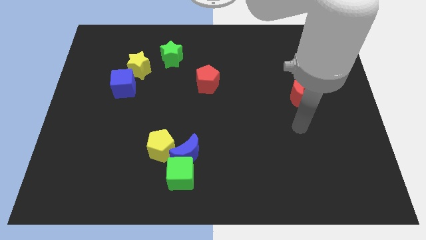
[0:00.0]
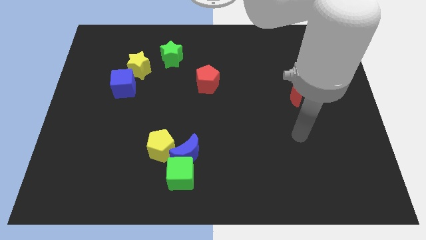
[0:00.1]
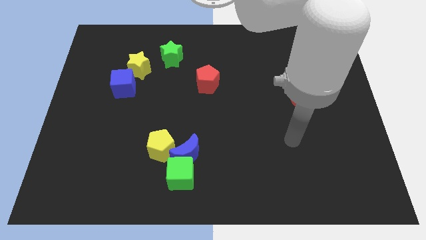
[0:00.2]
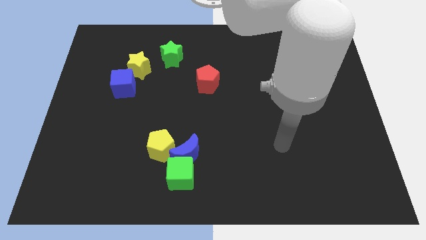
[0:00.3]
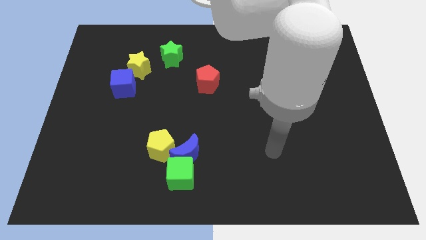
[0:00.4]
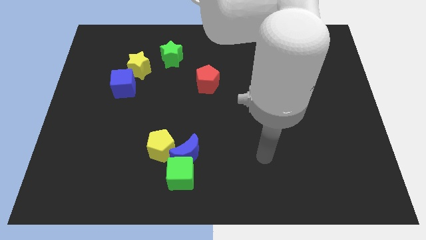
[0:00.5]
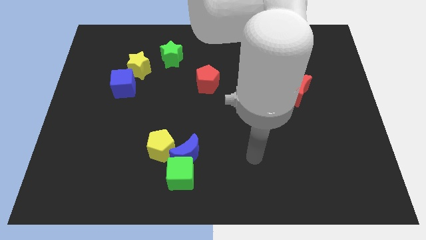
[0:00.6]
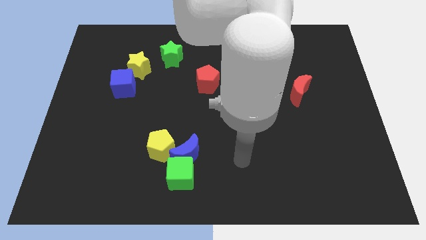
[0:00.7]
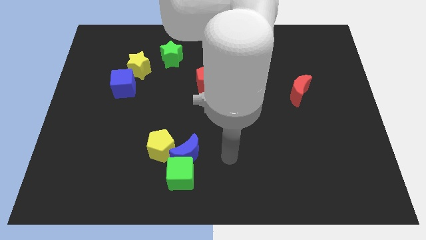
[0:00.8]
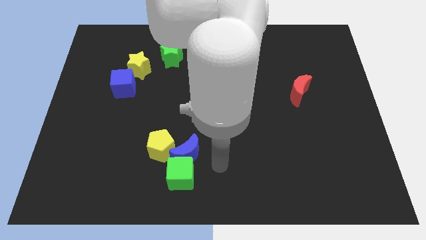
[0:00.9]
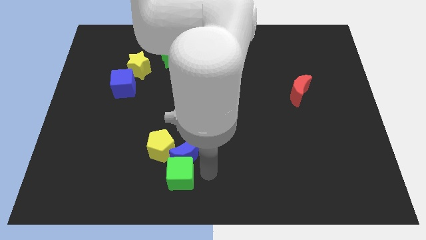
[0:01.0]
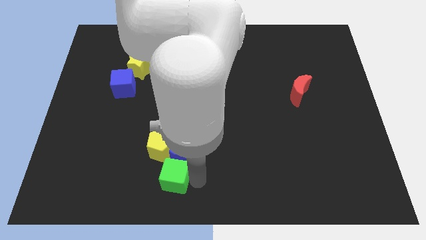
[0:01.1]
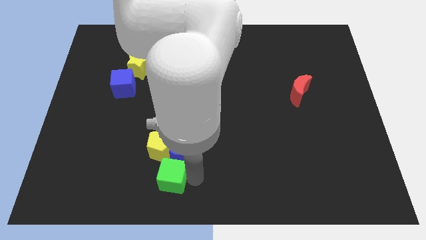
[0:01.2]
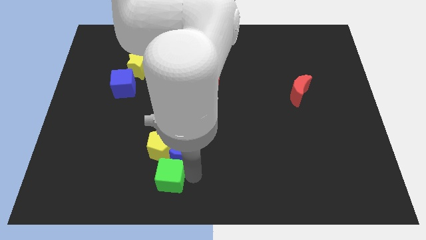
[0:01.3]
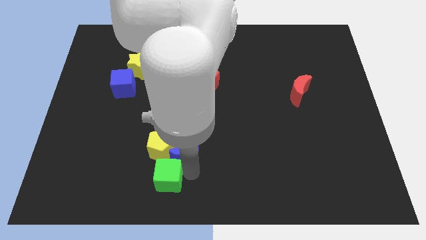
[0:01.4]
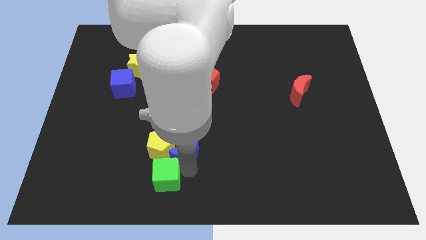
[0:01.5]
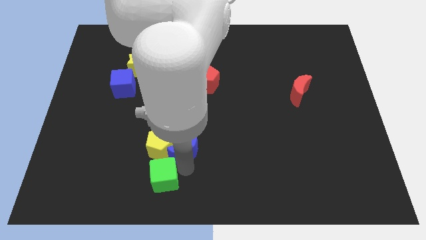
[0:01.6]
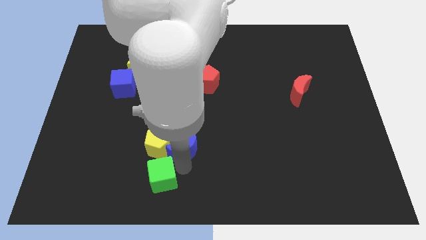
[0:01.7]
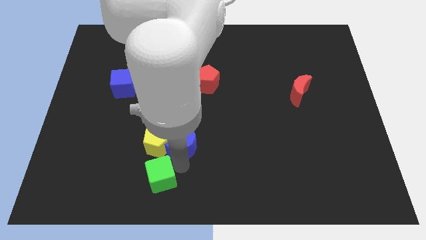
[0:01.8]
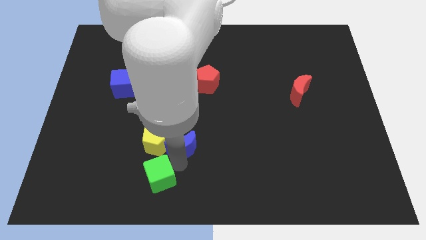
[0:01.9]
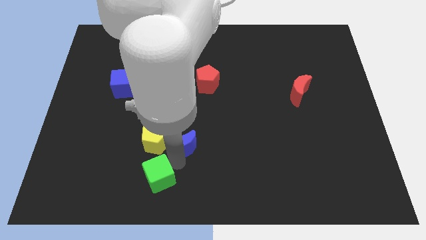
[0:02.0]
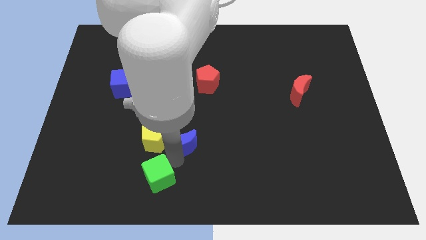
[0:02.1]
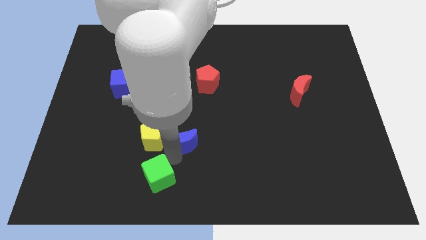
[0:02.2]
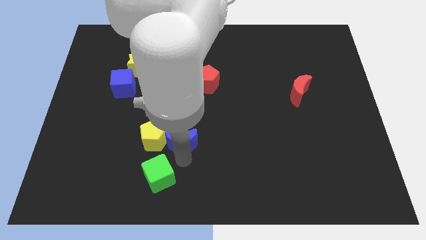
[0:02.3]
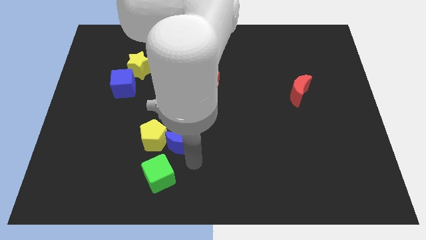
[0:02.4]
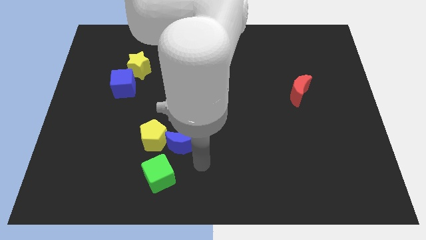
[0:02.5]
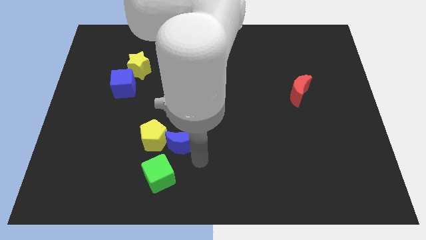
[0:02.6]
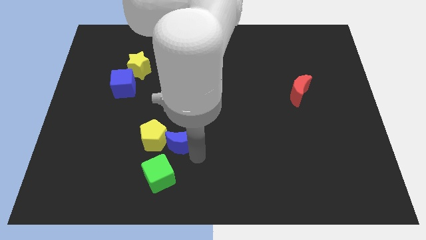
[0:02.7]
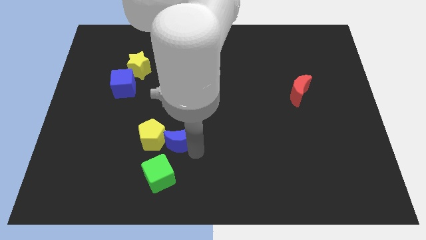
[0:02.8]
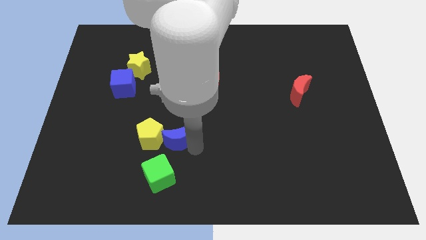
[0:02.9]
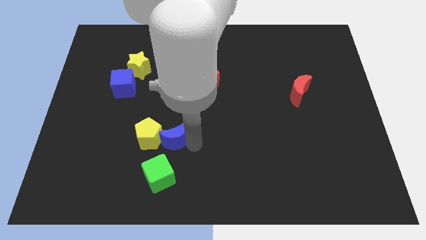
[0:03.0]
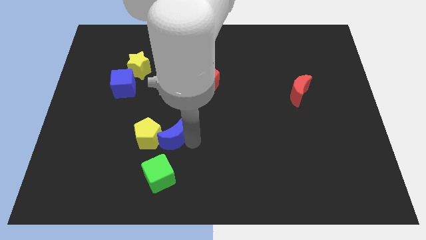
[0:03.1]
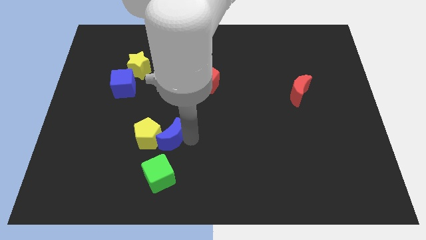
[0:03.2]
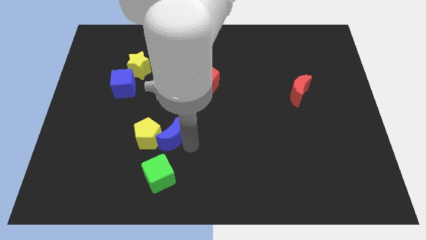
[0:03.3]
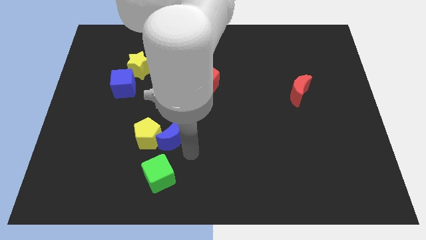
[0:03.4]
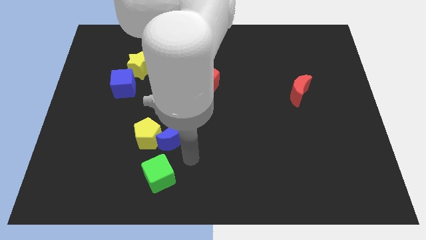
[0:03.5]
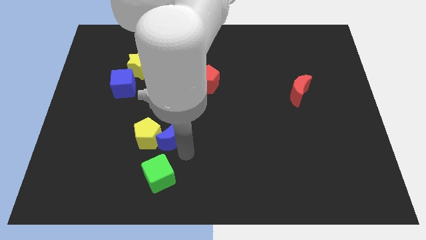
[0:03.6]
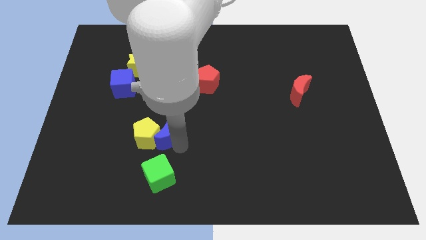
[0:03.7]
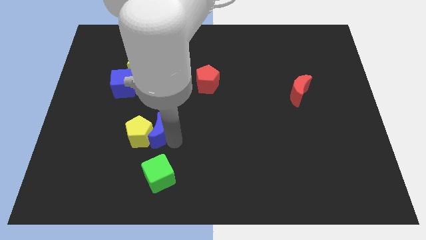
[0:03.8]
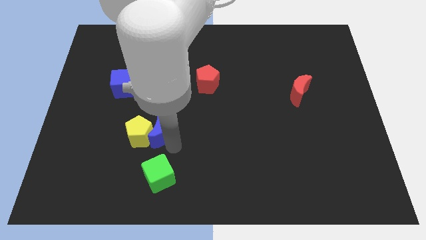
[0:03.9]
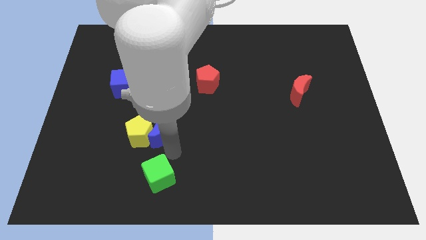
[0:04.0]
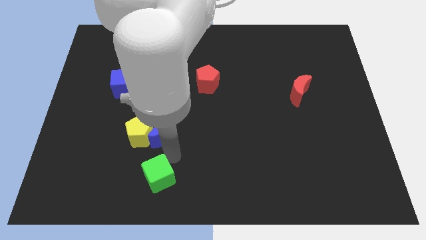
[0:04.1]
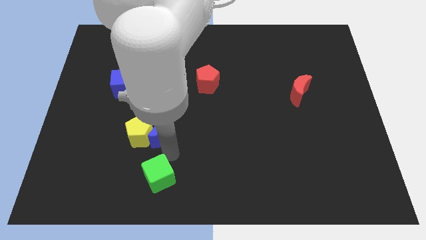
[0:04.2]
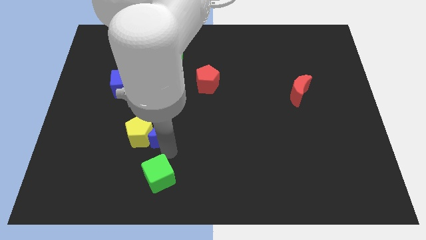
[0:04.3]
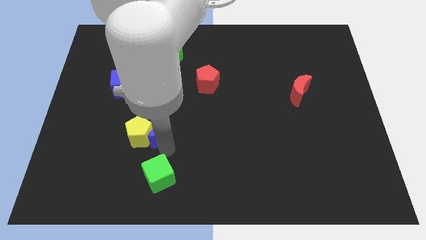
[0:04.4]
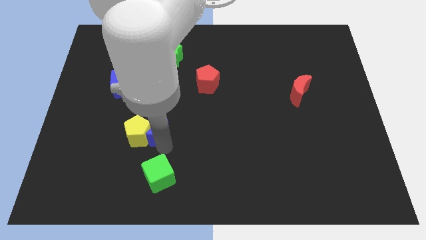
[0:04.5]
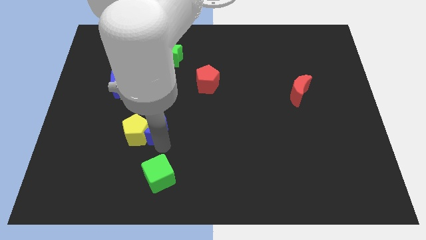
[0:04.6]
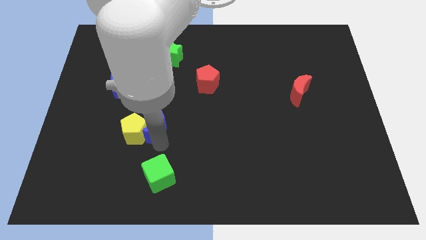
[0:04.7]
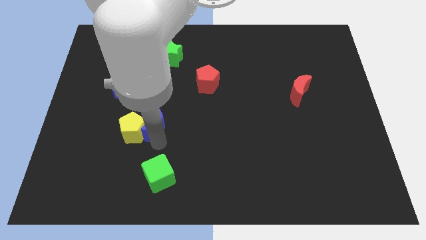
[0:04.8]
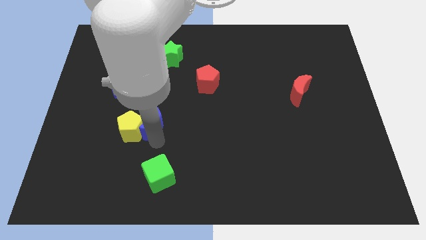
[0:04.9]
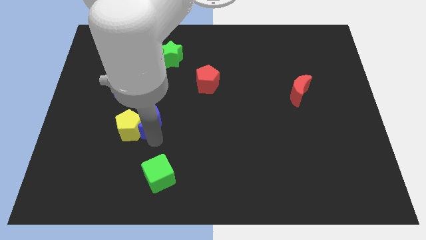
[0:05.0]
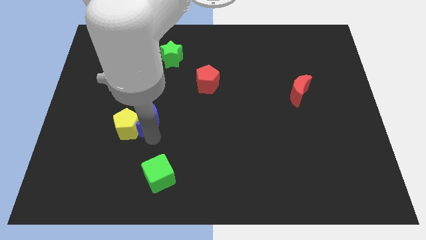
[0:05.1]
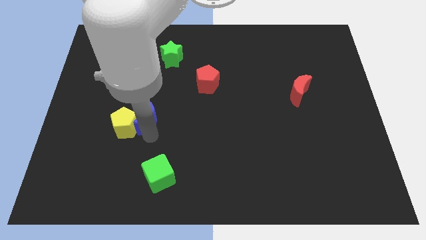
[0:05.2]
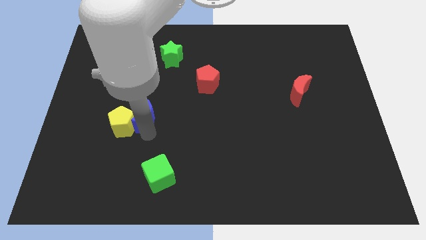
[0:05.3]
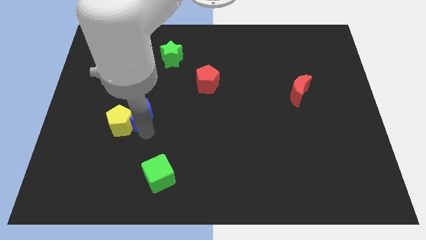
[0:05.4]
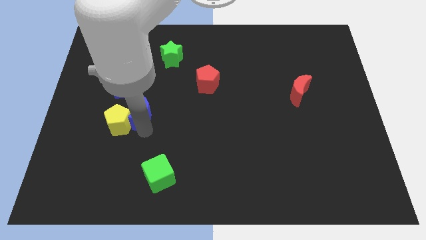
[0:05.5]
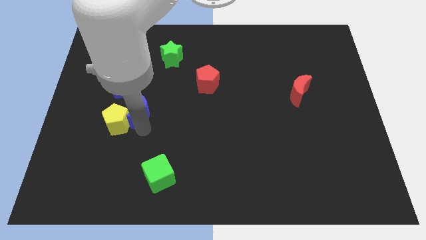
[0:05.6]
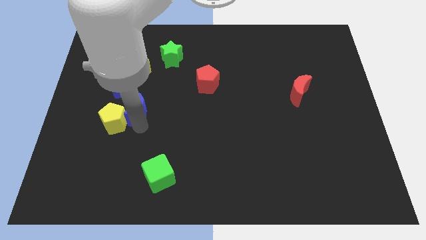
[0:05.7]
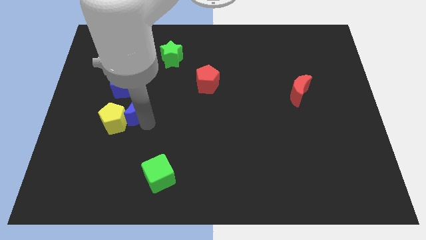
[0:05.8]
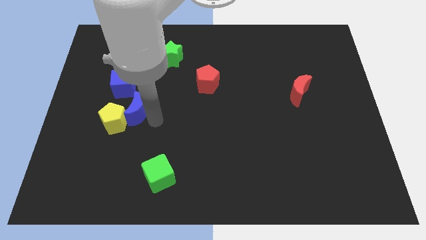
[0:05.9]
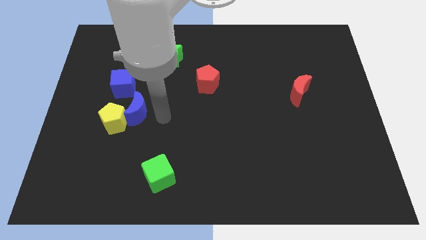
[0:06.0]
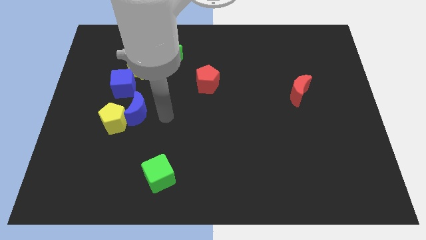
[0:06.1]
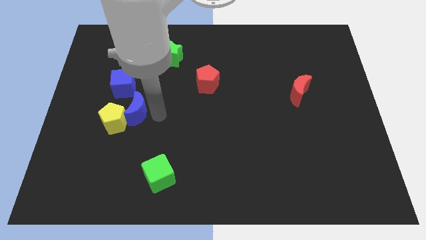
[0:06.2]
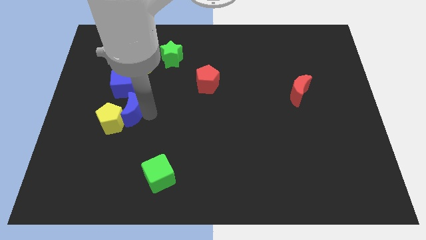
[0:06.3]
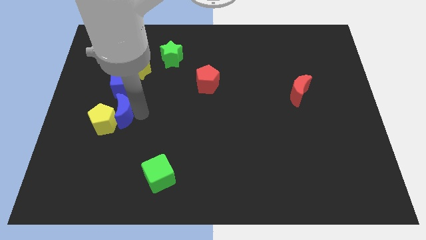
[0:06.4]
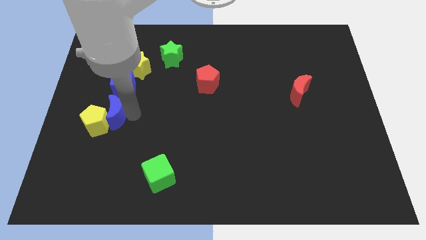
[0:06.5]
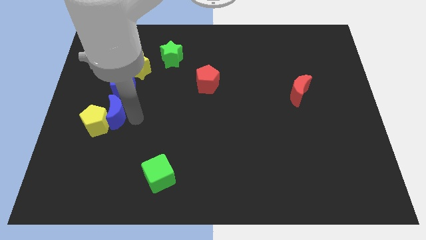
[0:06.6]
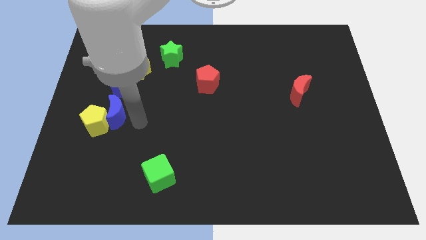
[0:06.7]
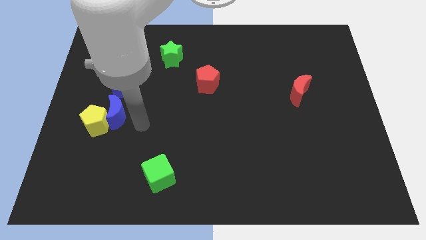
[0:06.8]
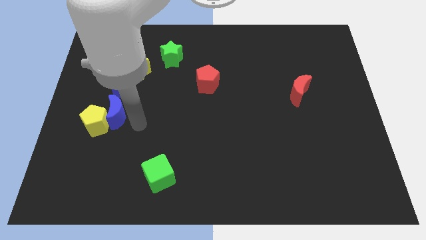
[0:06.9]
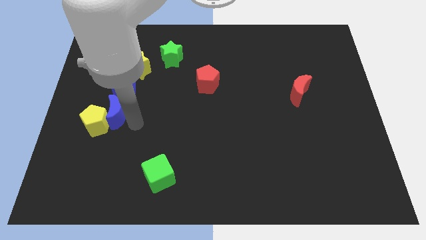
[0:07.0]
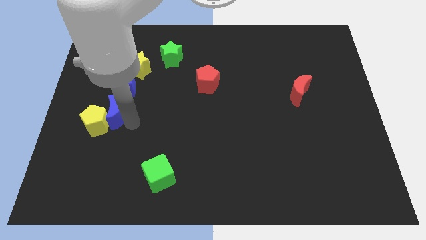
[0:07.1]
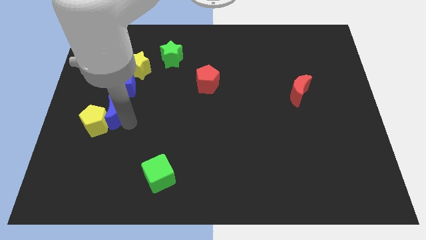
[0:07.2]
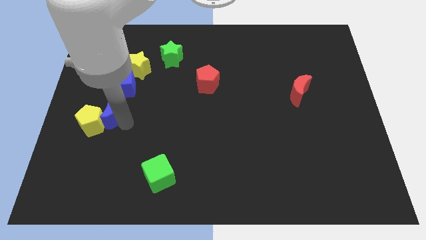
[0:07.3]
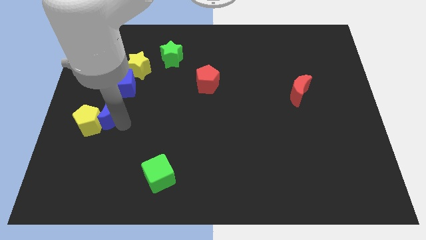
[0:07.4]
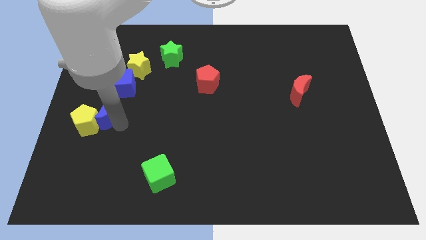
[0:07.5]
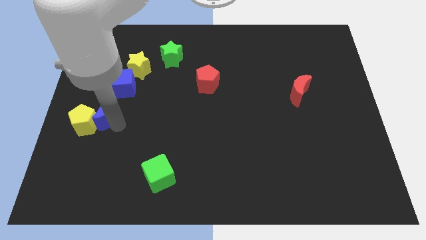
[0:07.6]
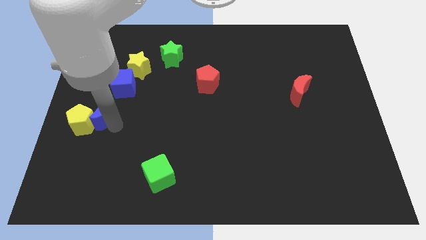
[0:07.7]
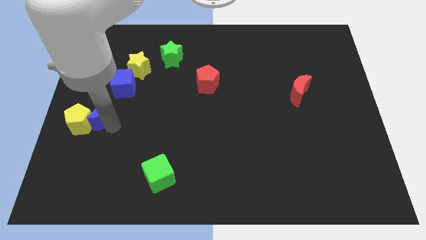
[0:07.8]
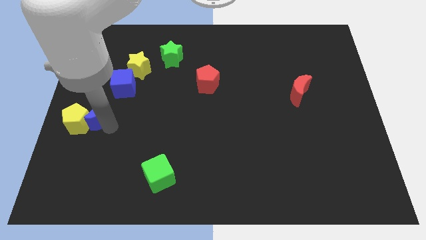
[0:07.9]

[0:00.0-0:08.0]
move the blue moon to the left side of the board
